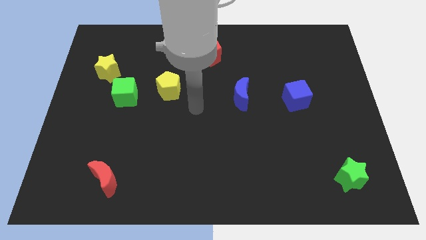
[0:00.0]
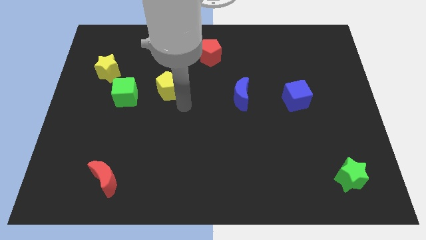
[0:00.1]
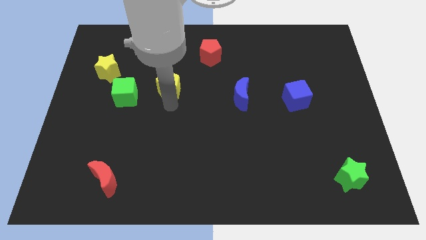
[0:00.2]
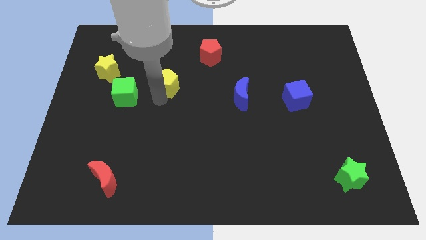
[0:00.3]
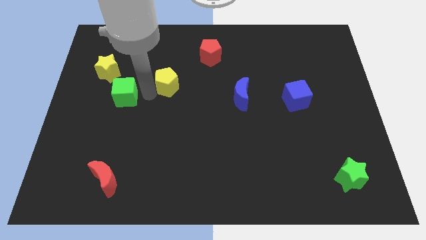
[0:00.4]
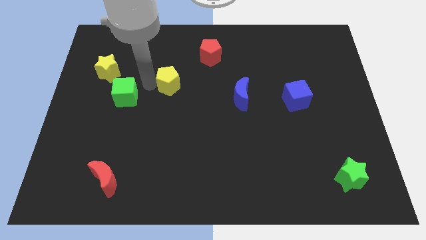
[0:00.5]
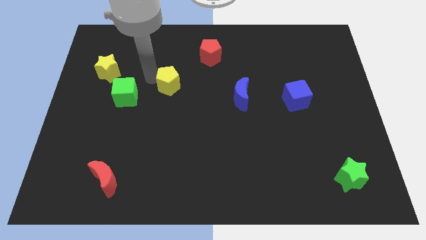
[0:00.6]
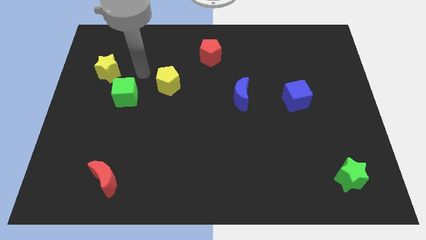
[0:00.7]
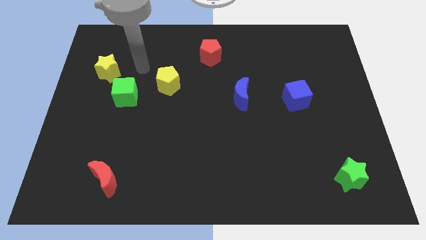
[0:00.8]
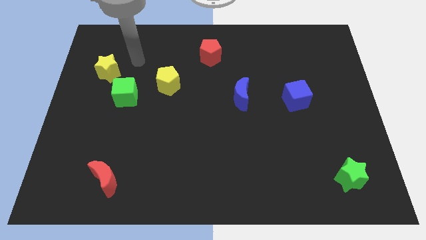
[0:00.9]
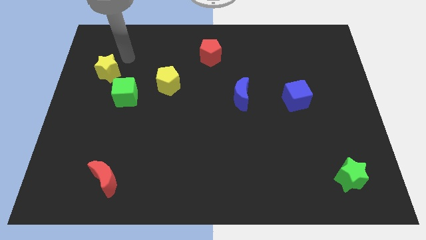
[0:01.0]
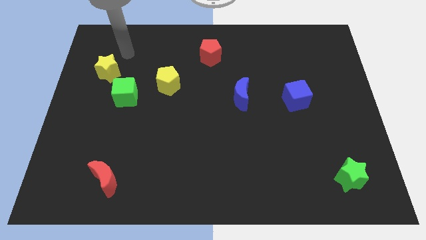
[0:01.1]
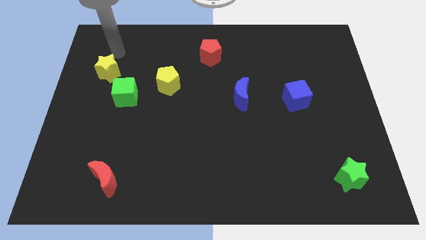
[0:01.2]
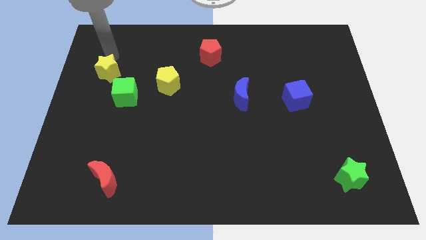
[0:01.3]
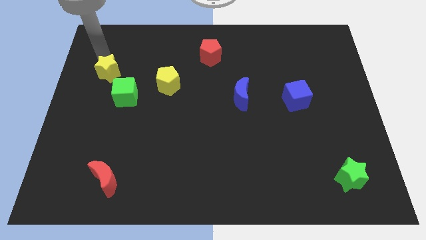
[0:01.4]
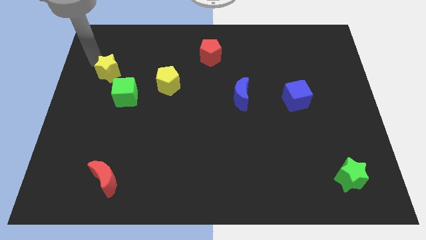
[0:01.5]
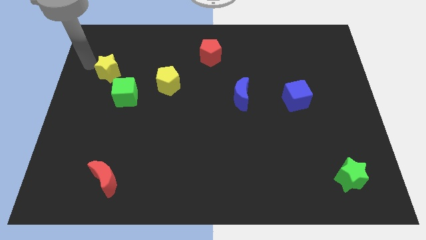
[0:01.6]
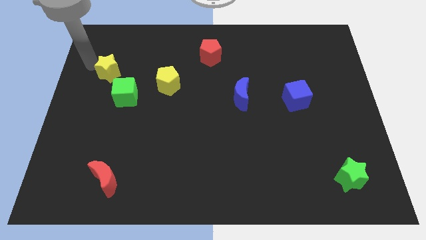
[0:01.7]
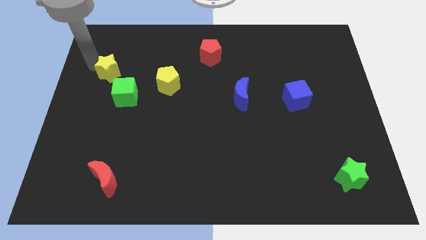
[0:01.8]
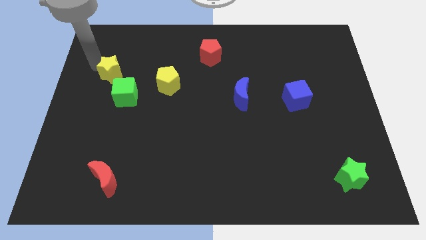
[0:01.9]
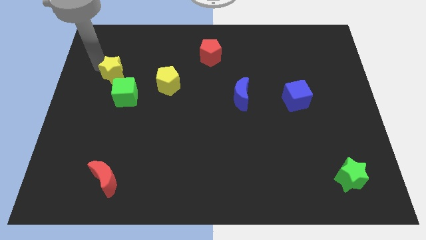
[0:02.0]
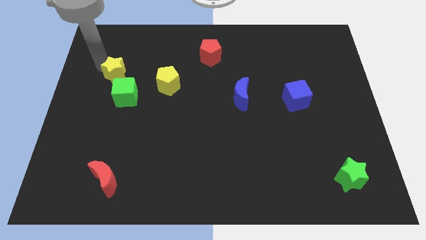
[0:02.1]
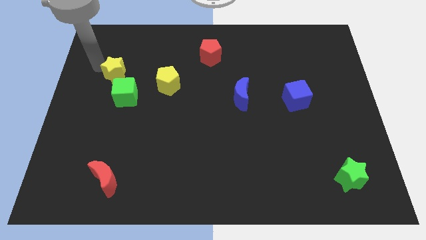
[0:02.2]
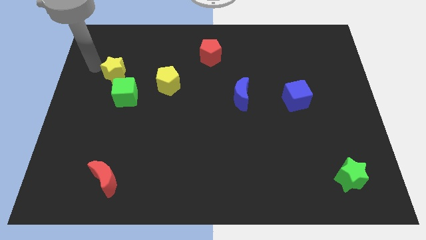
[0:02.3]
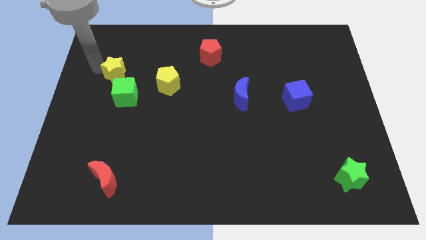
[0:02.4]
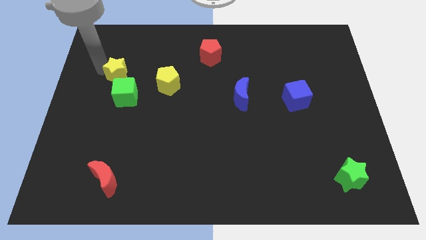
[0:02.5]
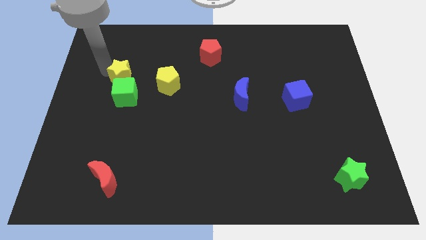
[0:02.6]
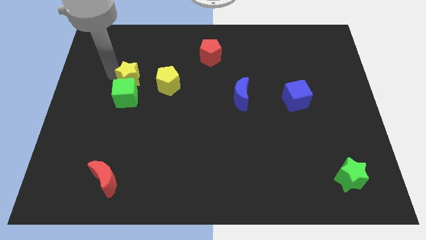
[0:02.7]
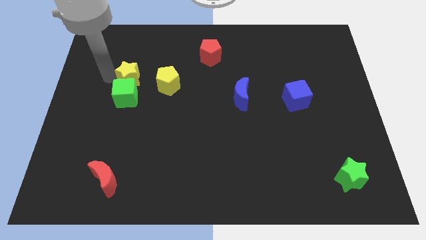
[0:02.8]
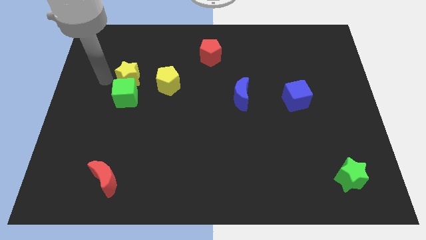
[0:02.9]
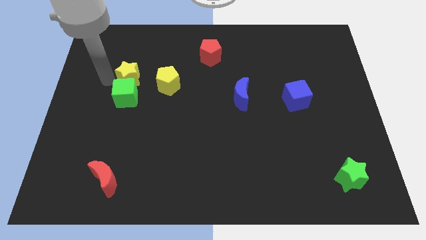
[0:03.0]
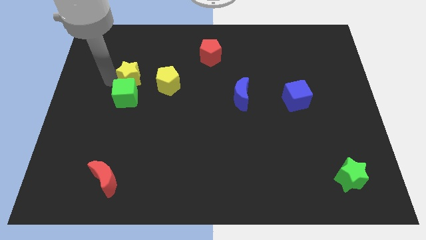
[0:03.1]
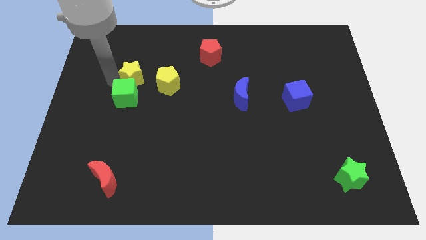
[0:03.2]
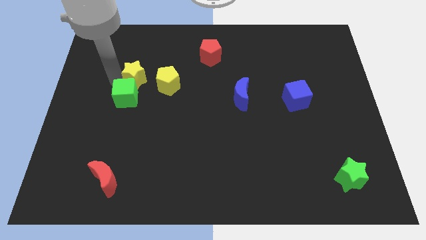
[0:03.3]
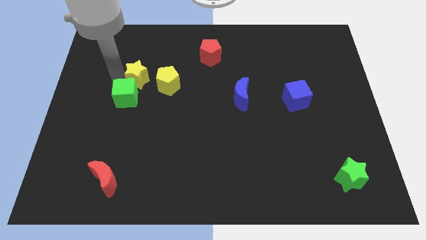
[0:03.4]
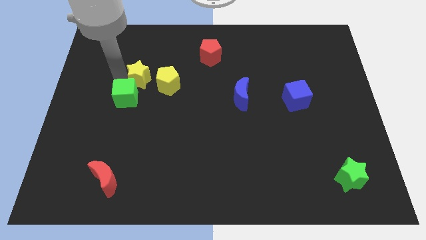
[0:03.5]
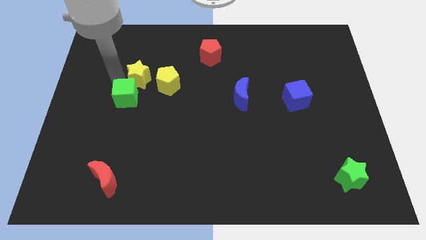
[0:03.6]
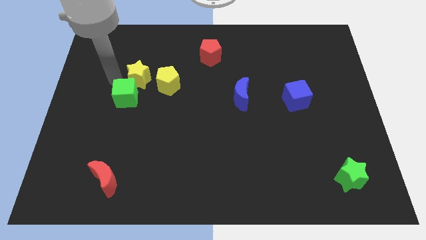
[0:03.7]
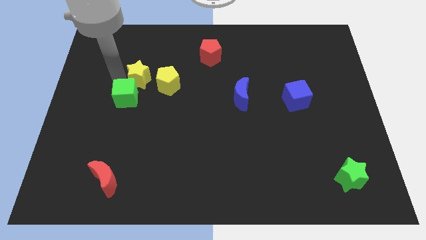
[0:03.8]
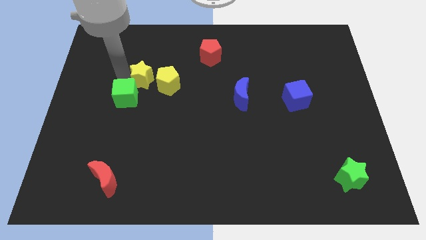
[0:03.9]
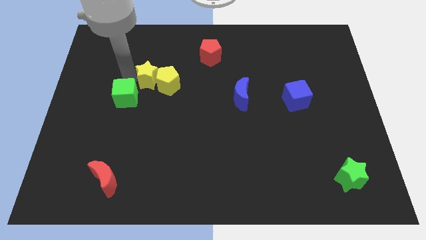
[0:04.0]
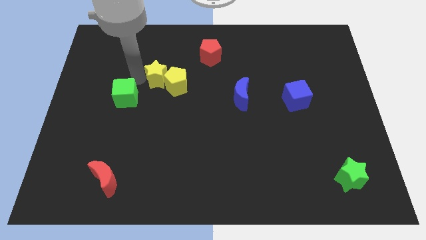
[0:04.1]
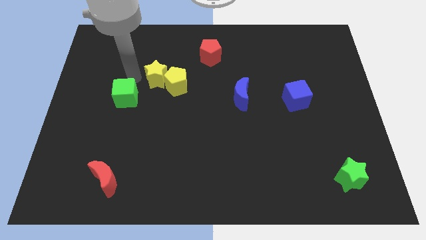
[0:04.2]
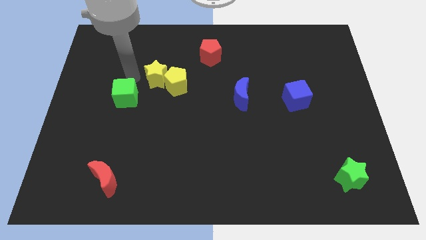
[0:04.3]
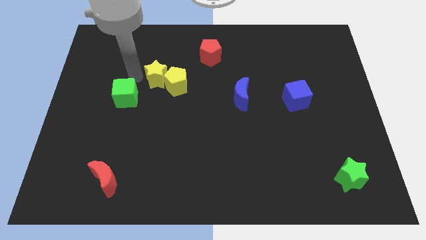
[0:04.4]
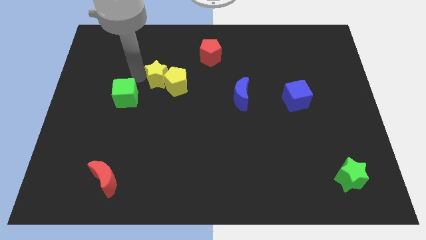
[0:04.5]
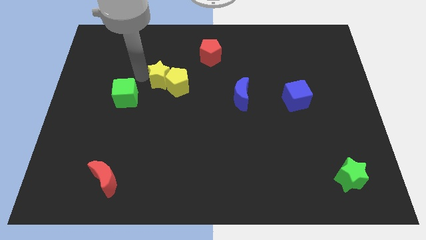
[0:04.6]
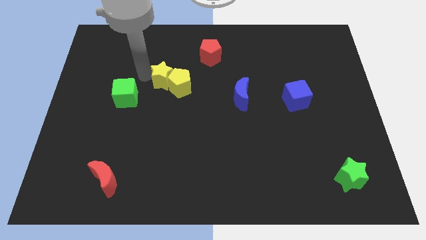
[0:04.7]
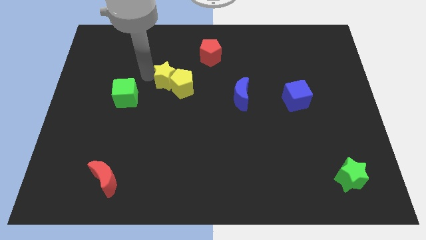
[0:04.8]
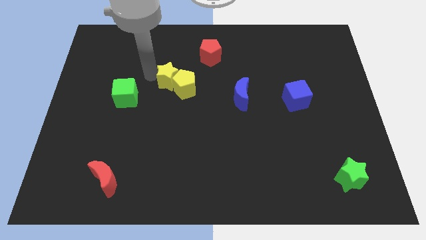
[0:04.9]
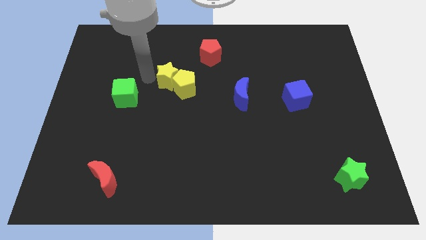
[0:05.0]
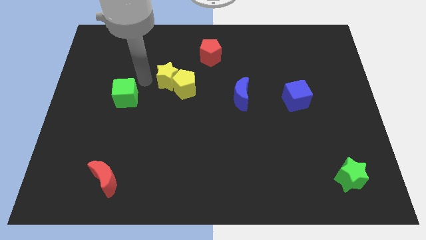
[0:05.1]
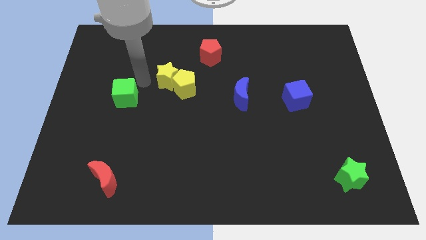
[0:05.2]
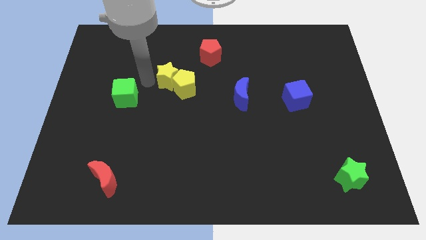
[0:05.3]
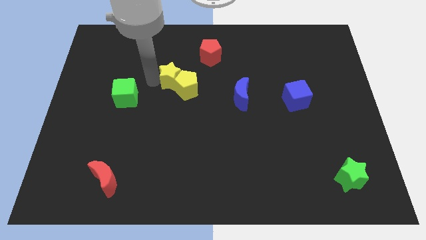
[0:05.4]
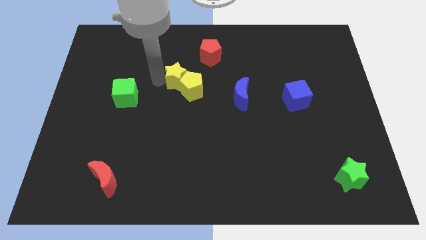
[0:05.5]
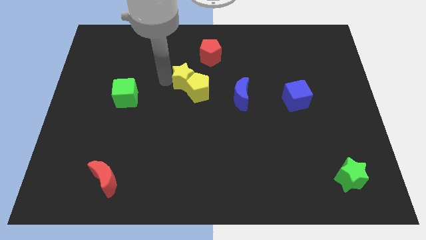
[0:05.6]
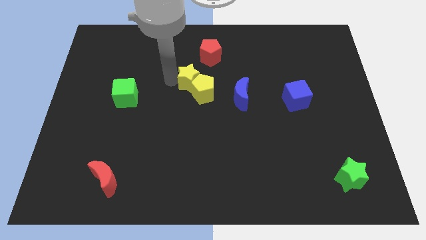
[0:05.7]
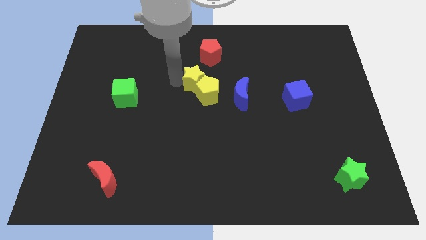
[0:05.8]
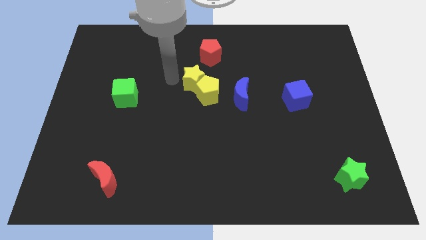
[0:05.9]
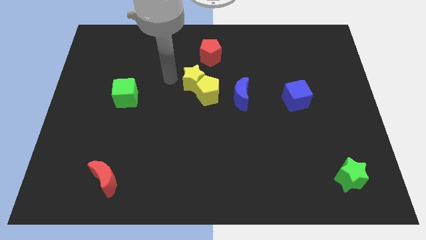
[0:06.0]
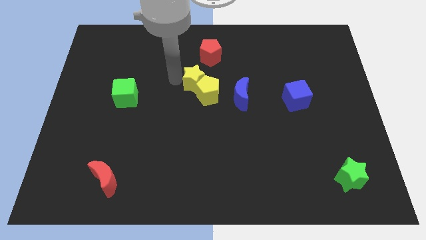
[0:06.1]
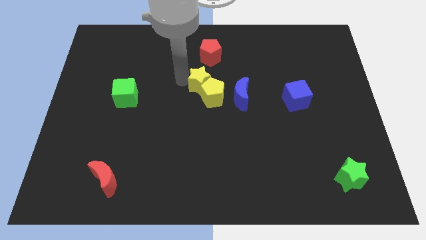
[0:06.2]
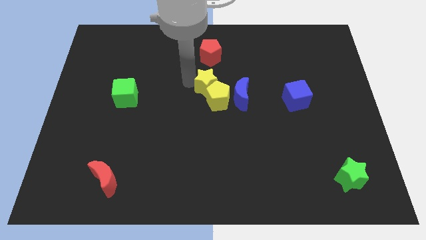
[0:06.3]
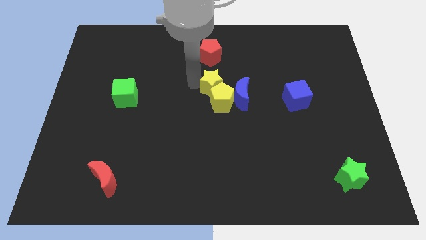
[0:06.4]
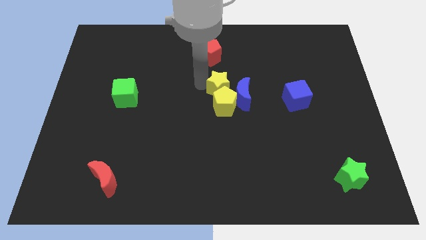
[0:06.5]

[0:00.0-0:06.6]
put the yellow star close to the blue moon

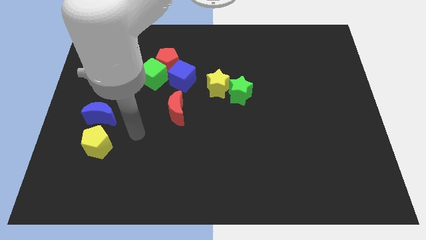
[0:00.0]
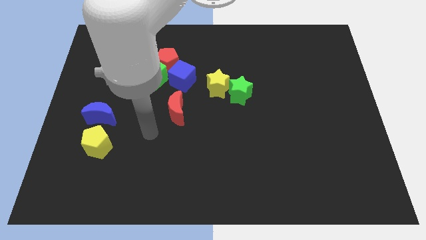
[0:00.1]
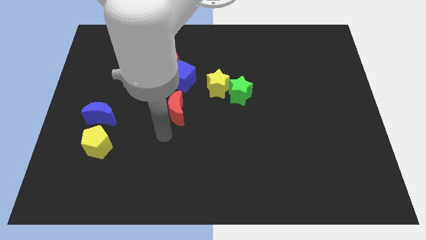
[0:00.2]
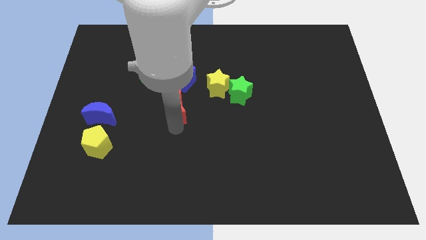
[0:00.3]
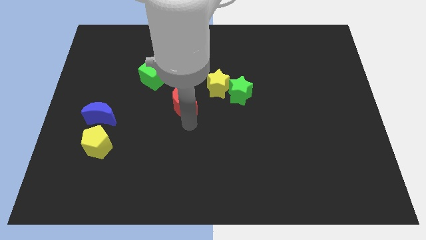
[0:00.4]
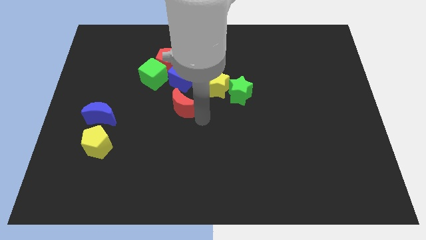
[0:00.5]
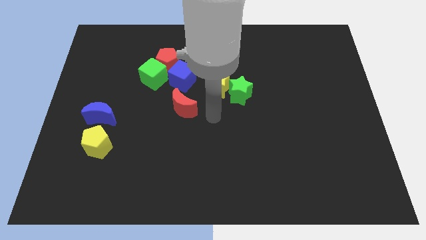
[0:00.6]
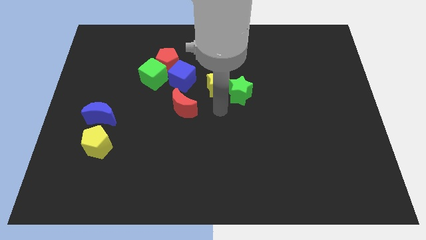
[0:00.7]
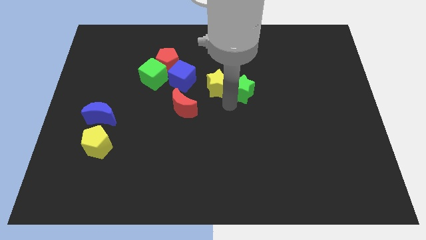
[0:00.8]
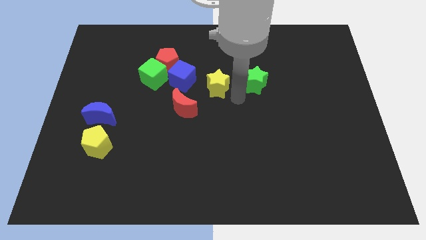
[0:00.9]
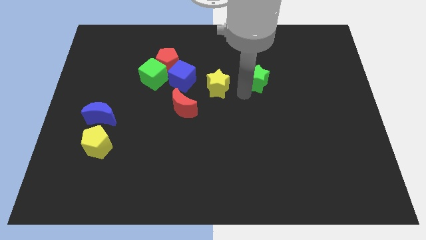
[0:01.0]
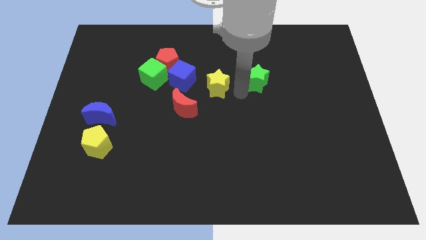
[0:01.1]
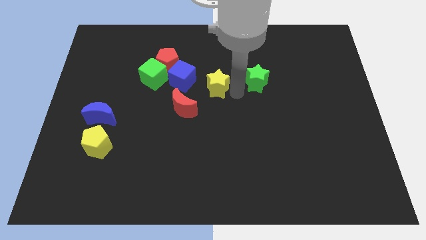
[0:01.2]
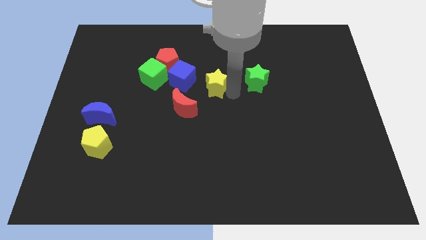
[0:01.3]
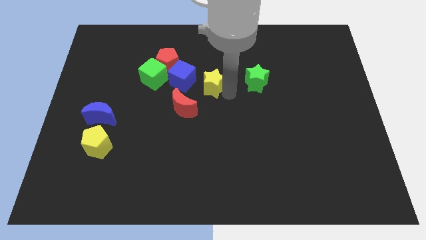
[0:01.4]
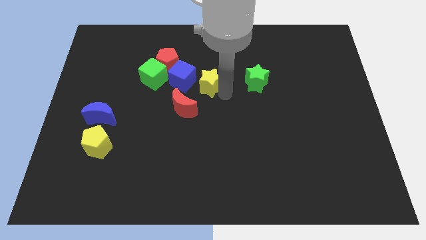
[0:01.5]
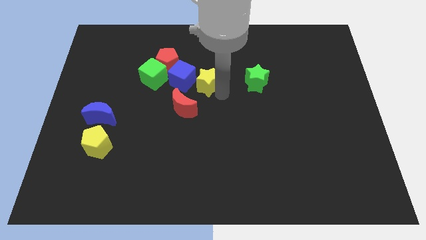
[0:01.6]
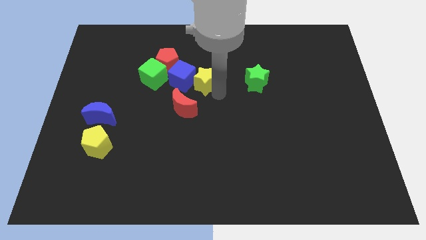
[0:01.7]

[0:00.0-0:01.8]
slide the yellow star towards the blue cube
